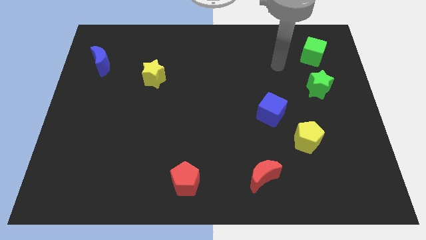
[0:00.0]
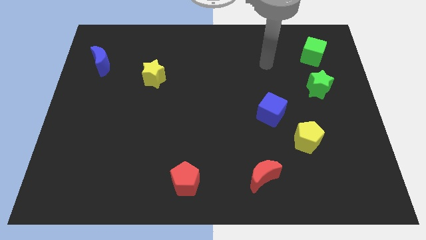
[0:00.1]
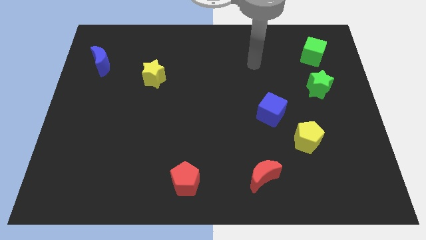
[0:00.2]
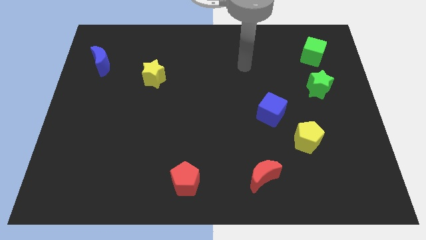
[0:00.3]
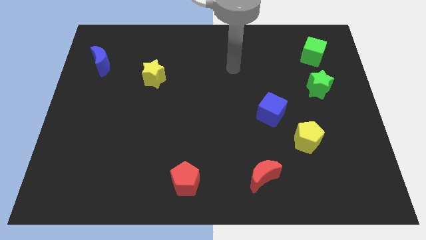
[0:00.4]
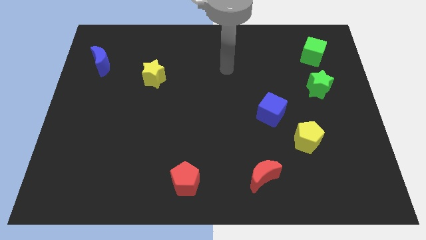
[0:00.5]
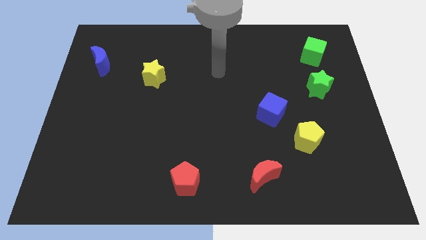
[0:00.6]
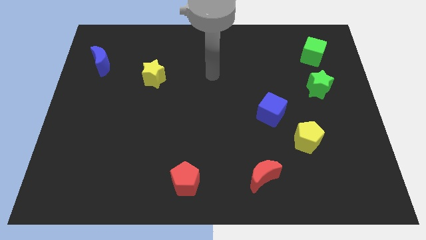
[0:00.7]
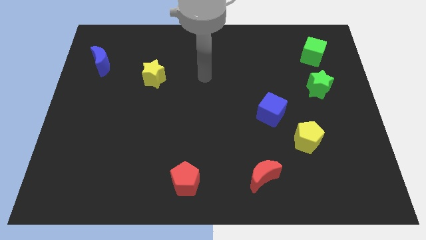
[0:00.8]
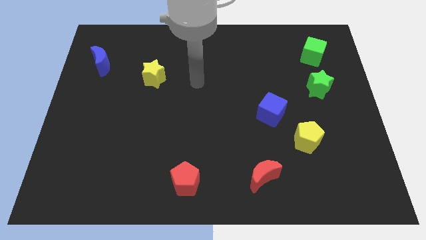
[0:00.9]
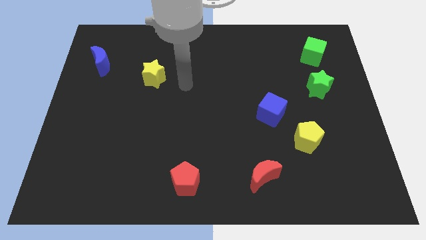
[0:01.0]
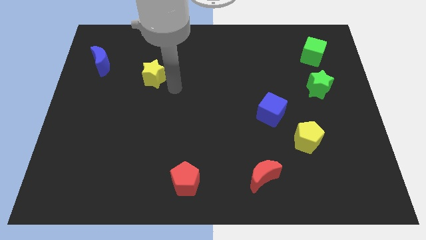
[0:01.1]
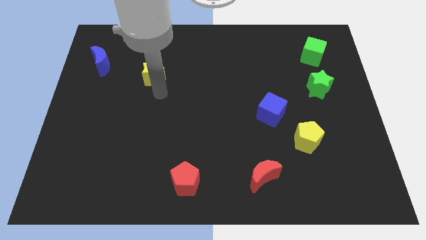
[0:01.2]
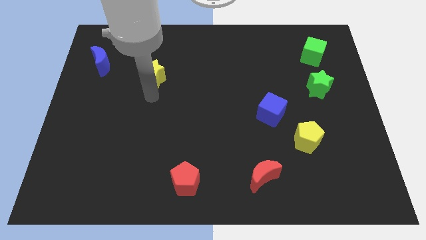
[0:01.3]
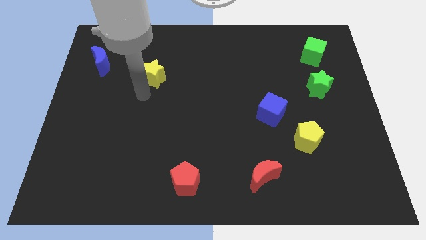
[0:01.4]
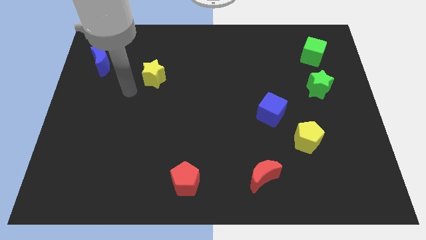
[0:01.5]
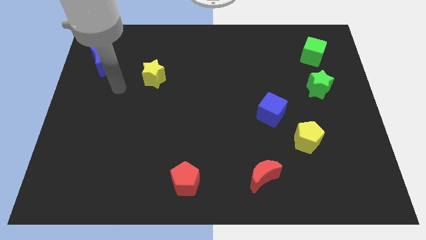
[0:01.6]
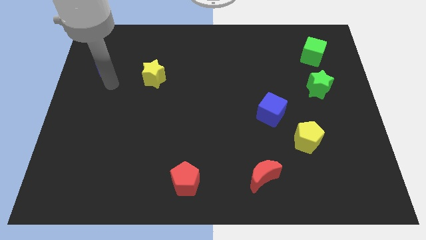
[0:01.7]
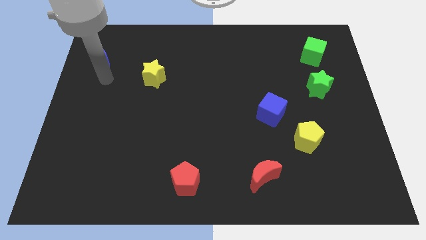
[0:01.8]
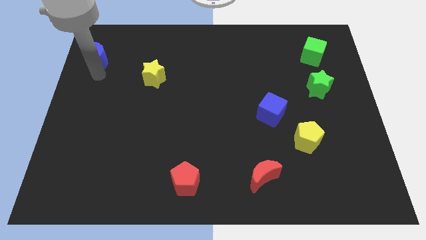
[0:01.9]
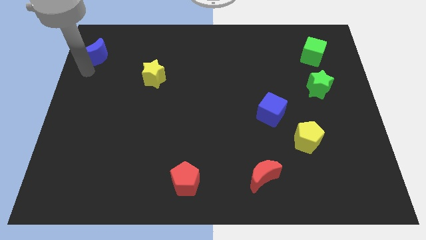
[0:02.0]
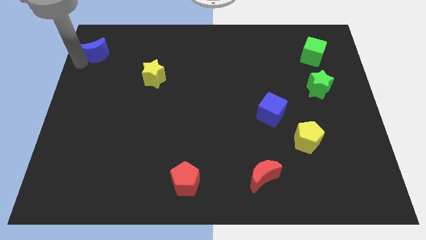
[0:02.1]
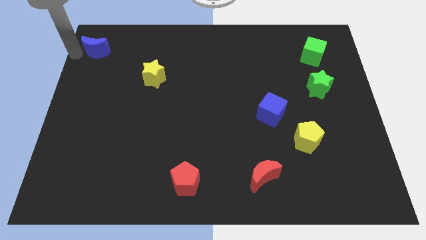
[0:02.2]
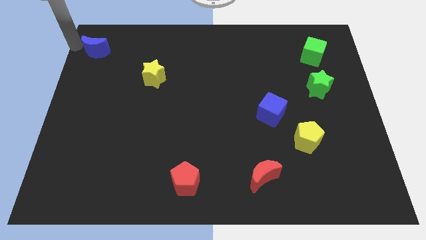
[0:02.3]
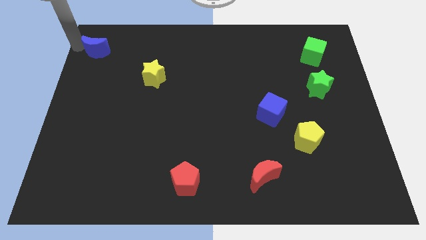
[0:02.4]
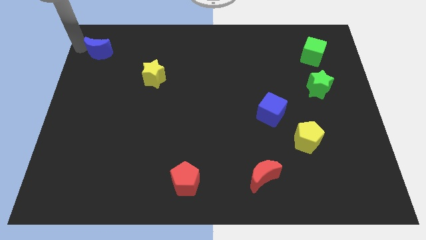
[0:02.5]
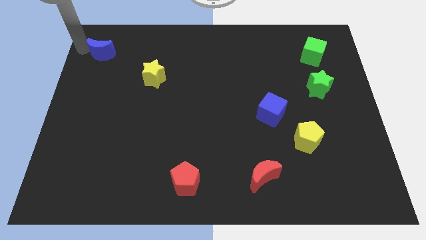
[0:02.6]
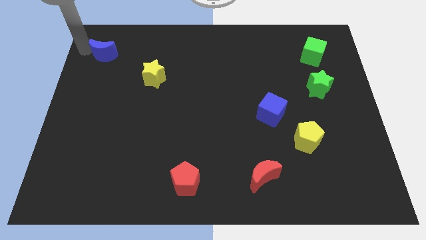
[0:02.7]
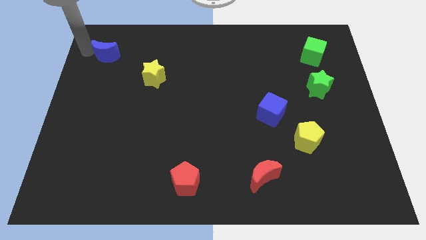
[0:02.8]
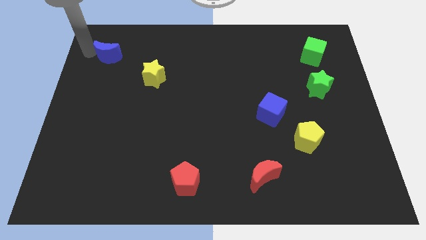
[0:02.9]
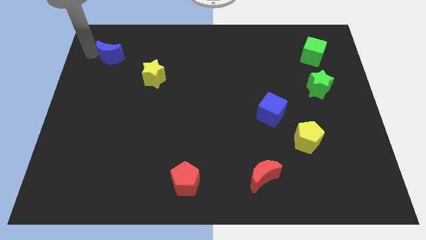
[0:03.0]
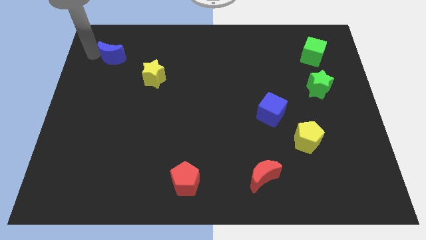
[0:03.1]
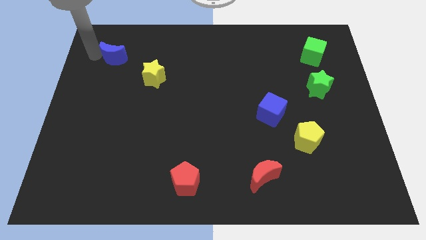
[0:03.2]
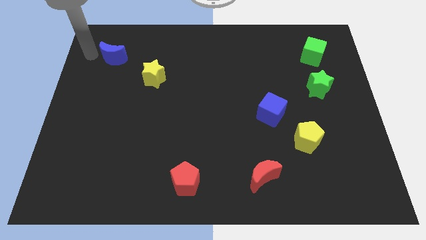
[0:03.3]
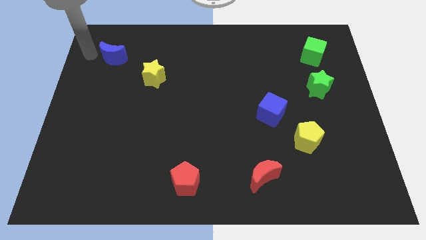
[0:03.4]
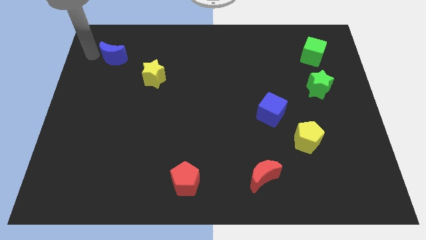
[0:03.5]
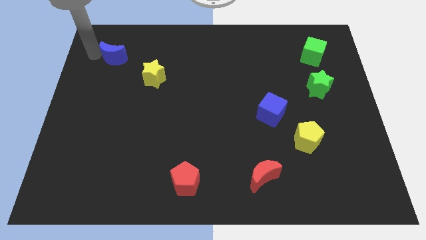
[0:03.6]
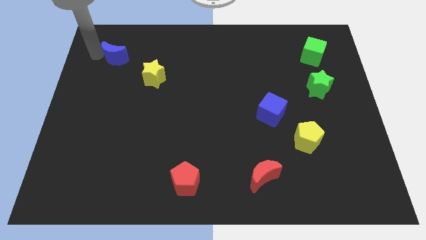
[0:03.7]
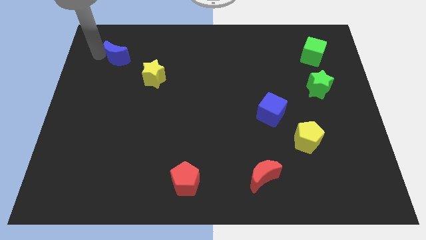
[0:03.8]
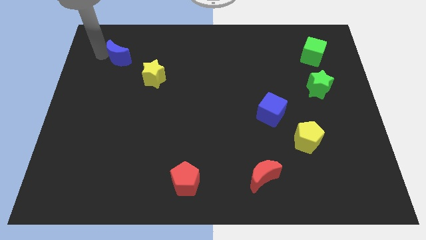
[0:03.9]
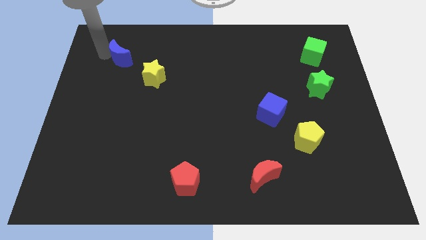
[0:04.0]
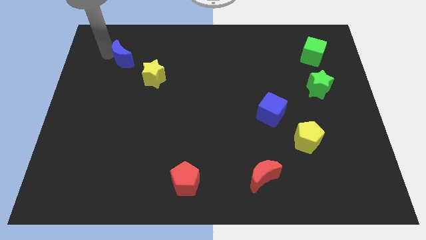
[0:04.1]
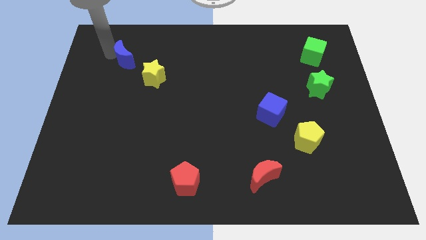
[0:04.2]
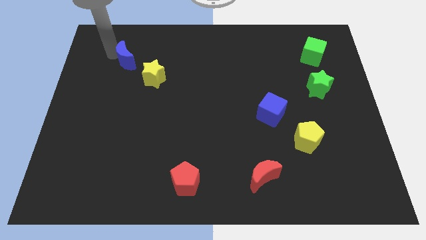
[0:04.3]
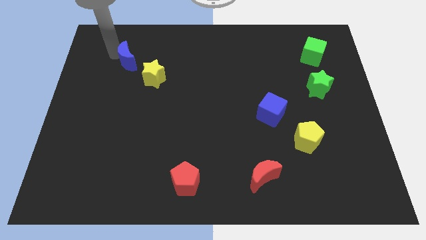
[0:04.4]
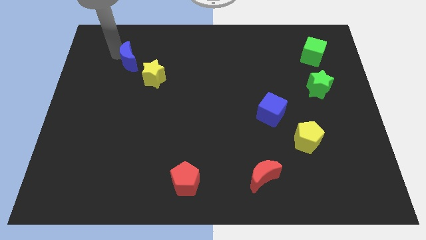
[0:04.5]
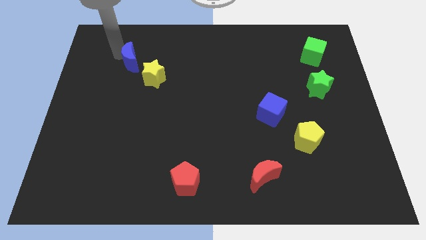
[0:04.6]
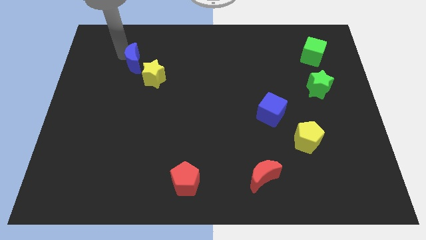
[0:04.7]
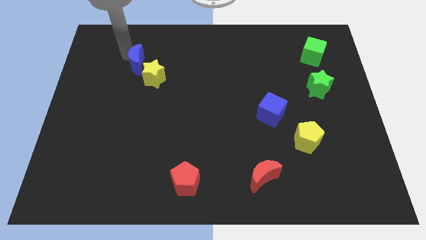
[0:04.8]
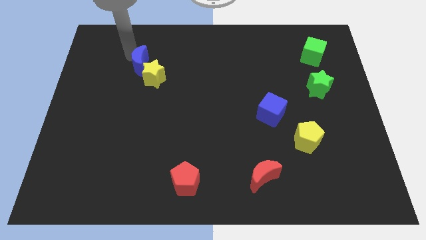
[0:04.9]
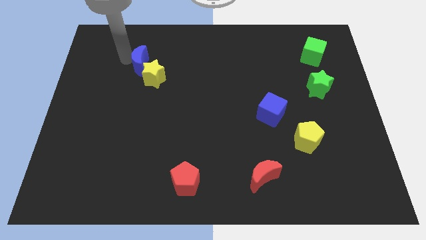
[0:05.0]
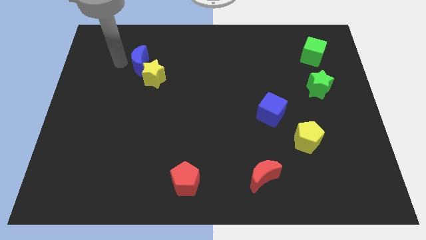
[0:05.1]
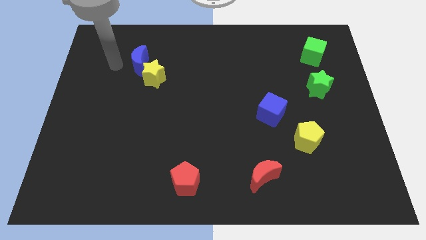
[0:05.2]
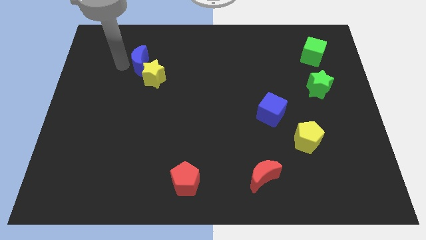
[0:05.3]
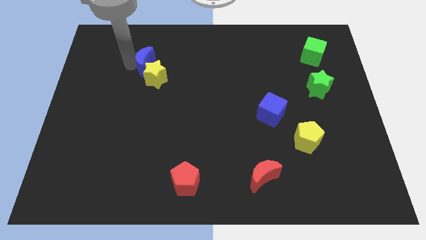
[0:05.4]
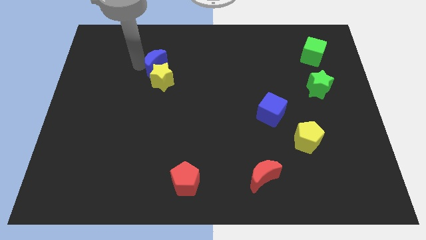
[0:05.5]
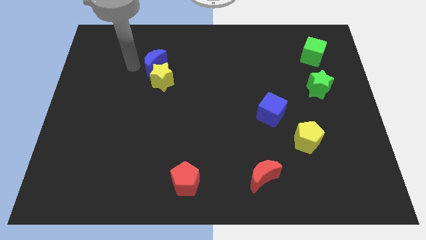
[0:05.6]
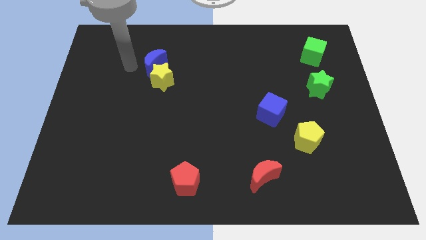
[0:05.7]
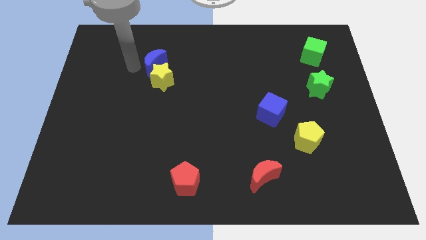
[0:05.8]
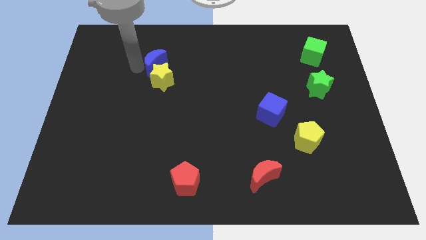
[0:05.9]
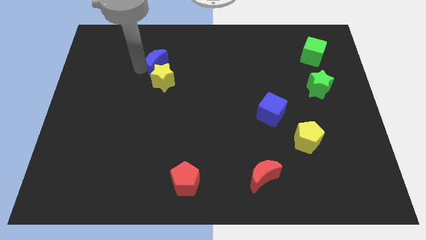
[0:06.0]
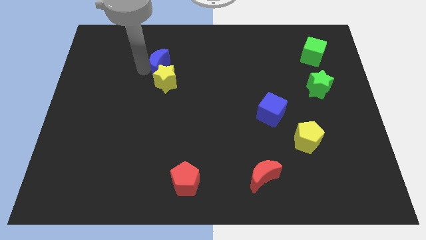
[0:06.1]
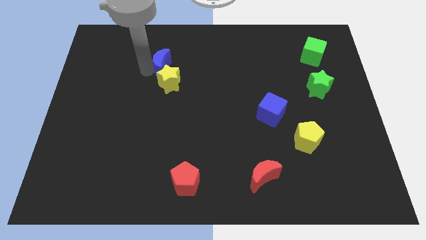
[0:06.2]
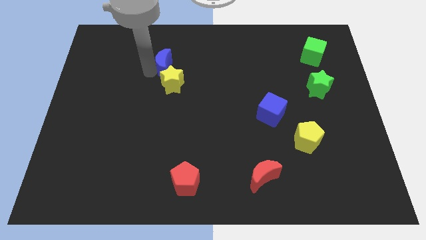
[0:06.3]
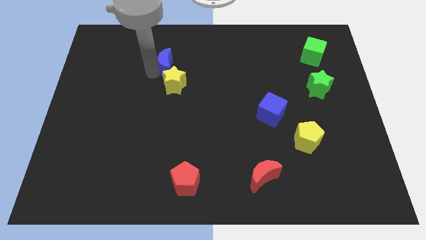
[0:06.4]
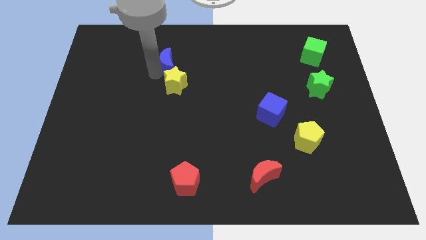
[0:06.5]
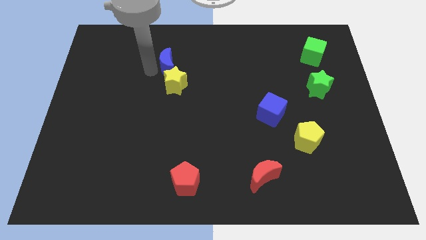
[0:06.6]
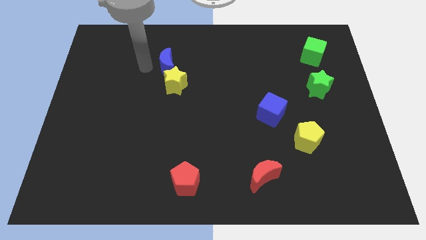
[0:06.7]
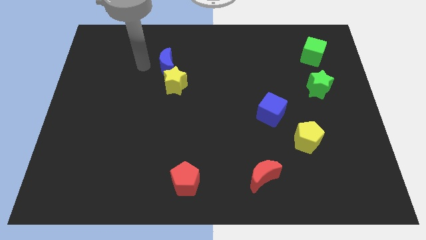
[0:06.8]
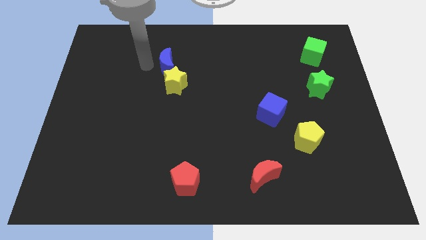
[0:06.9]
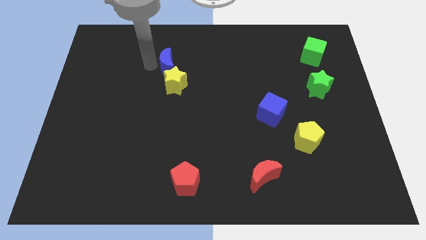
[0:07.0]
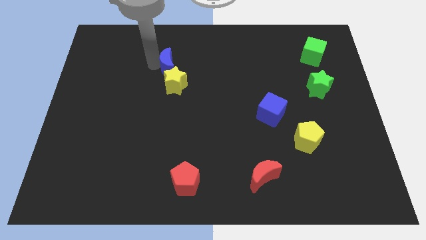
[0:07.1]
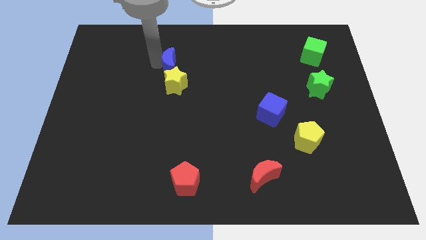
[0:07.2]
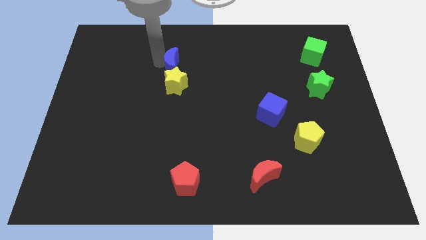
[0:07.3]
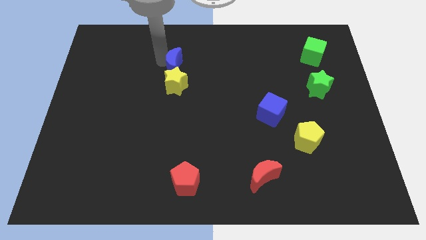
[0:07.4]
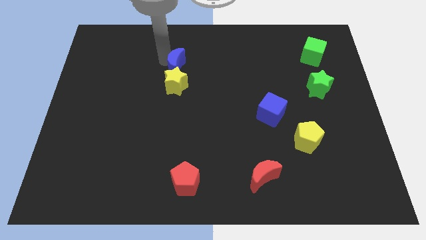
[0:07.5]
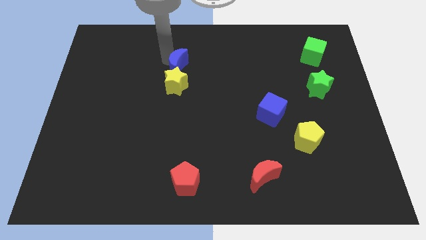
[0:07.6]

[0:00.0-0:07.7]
slide the blue moon to the top right side of the yellow star
